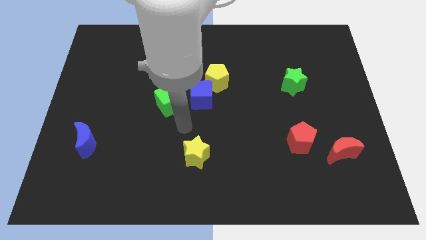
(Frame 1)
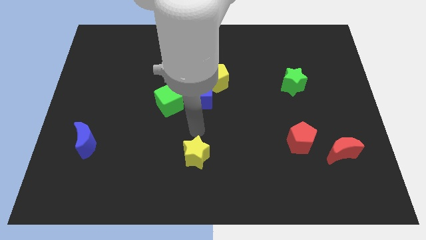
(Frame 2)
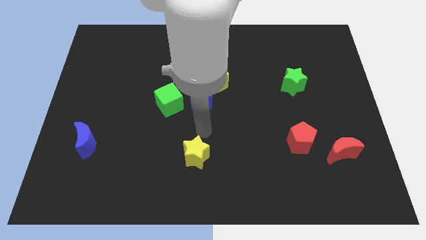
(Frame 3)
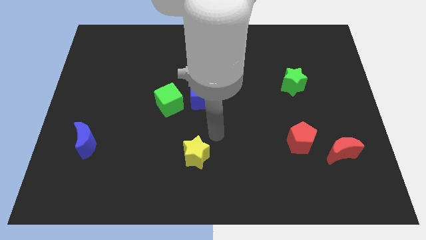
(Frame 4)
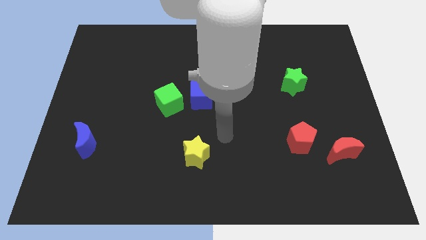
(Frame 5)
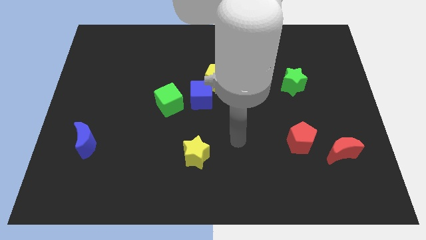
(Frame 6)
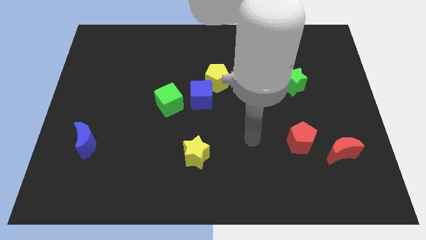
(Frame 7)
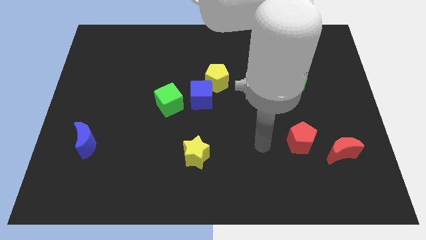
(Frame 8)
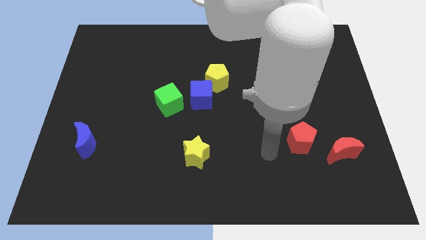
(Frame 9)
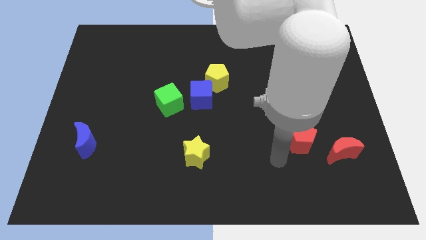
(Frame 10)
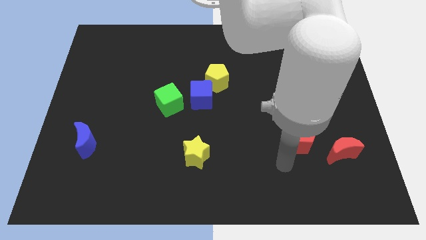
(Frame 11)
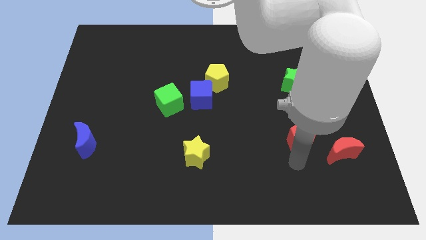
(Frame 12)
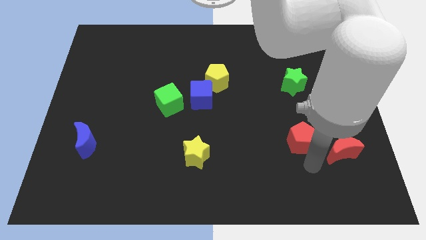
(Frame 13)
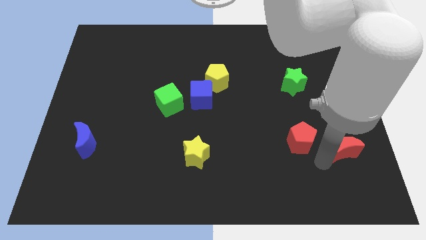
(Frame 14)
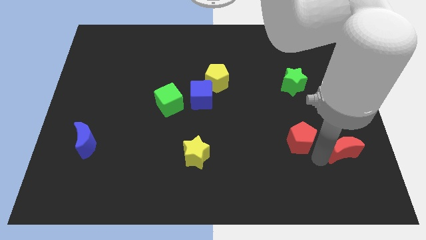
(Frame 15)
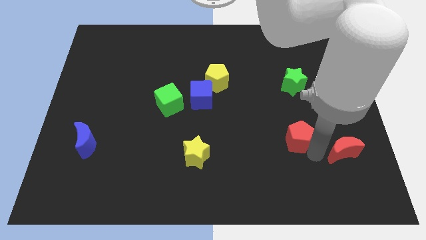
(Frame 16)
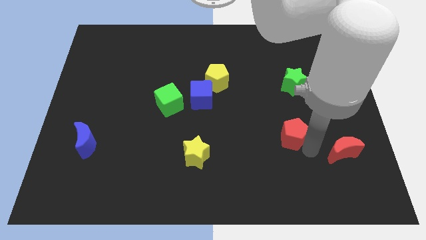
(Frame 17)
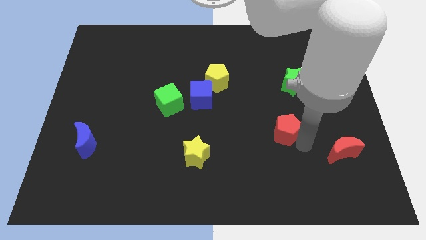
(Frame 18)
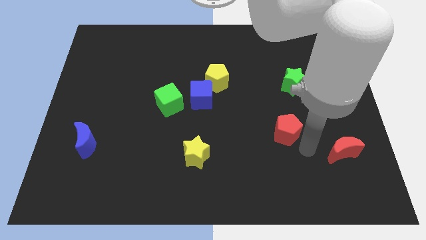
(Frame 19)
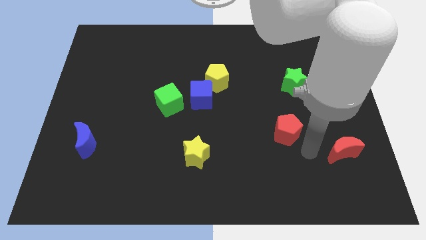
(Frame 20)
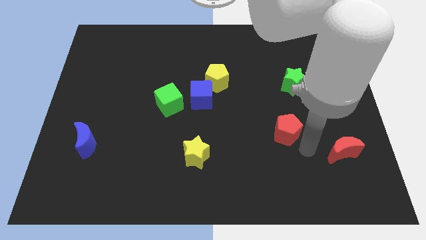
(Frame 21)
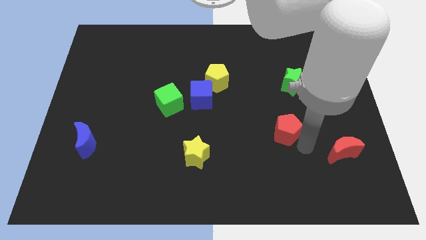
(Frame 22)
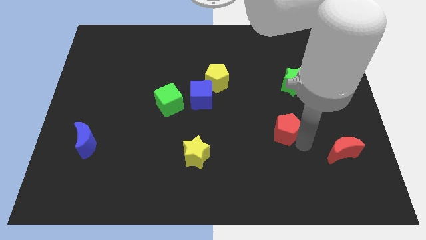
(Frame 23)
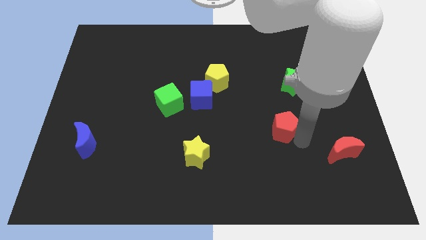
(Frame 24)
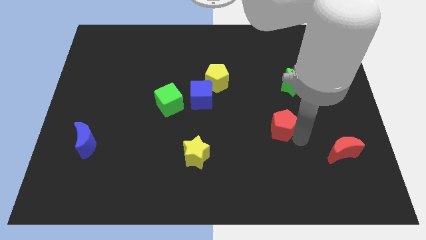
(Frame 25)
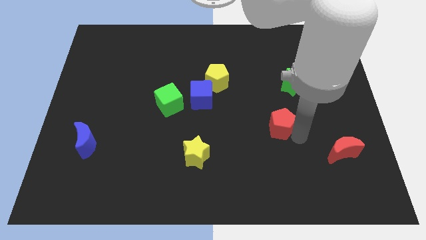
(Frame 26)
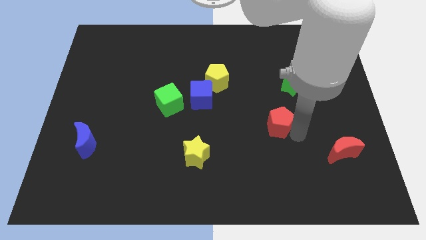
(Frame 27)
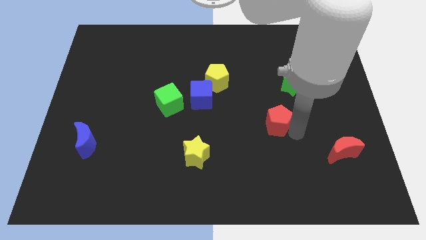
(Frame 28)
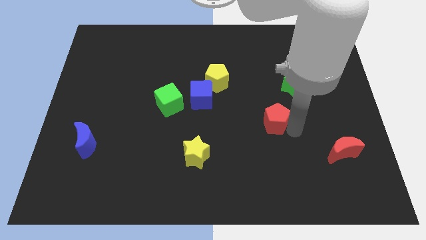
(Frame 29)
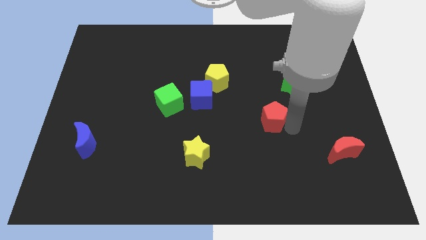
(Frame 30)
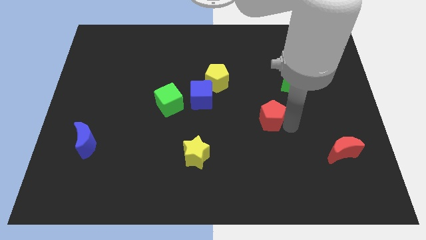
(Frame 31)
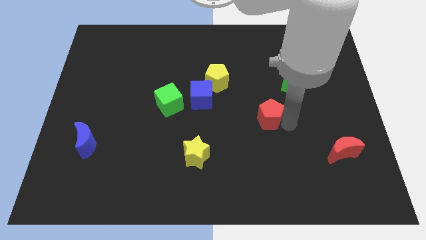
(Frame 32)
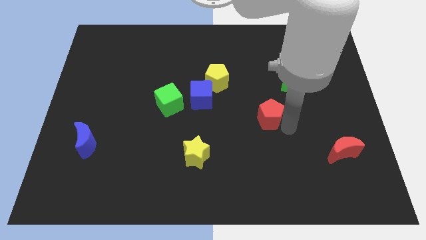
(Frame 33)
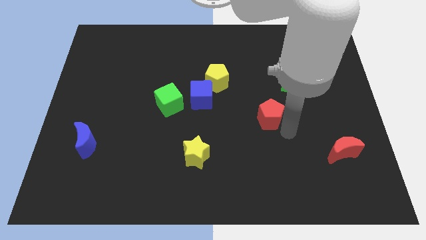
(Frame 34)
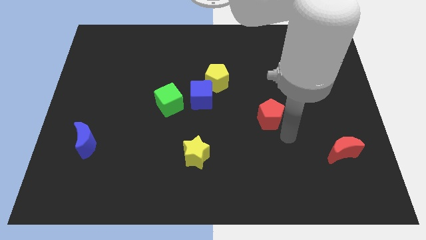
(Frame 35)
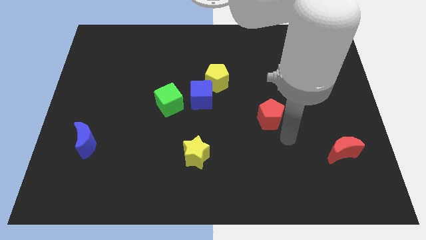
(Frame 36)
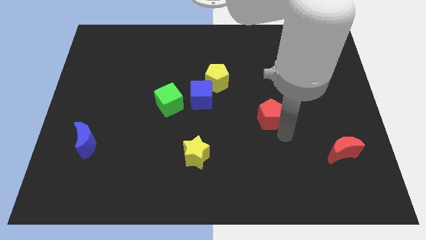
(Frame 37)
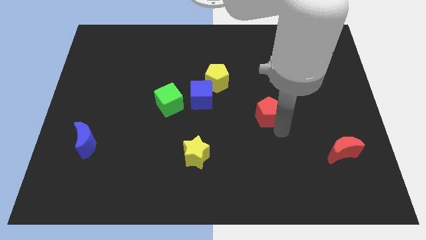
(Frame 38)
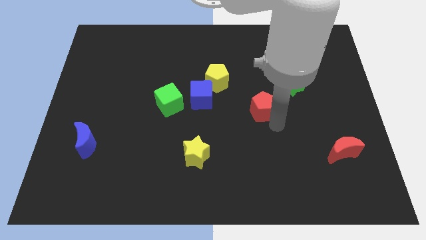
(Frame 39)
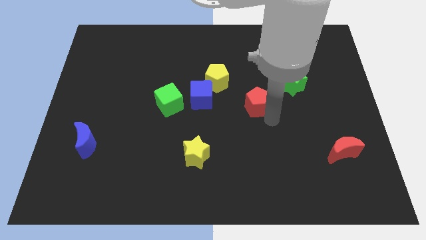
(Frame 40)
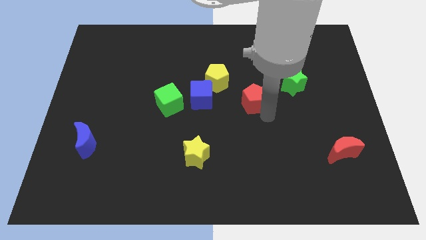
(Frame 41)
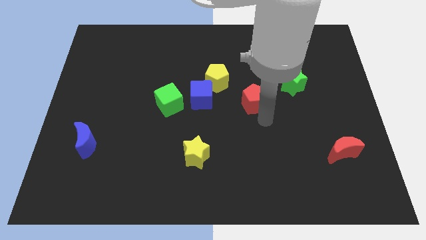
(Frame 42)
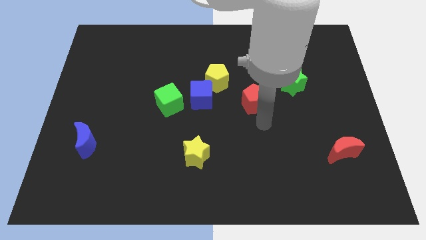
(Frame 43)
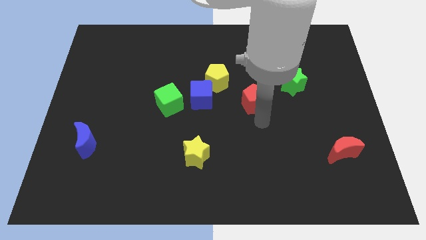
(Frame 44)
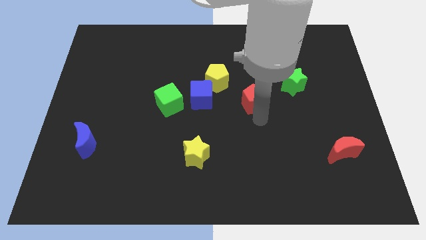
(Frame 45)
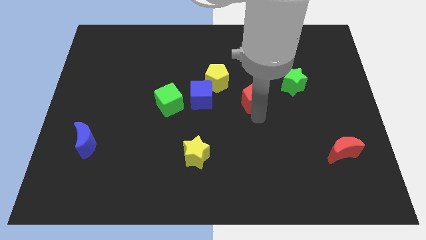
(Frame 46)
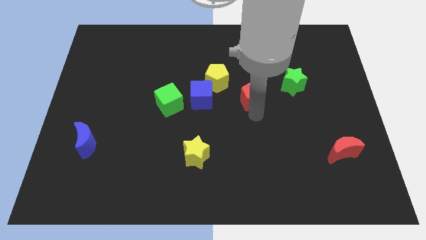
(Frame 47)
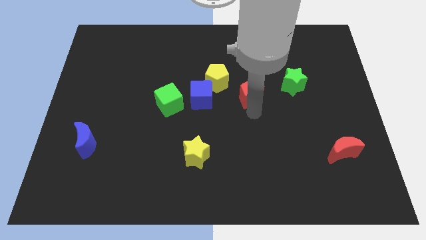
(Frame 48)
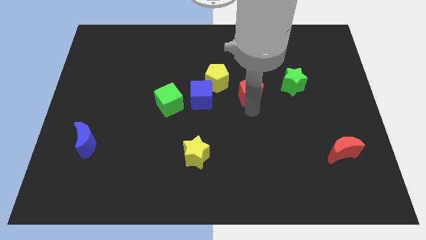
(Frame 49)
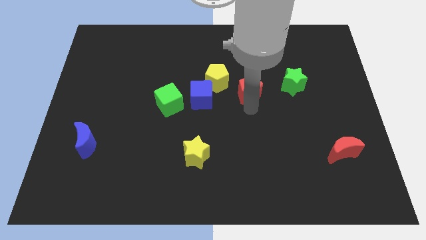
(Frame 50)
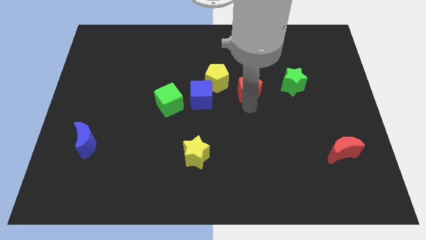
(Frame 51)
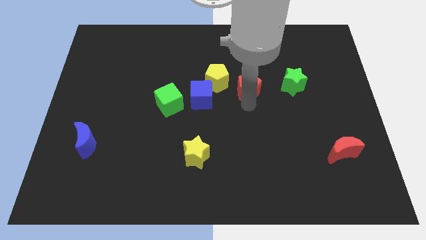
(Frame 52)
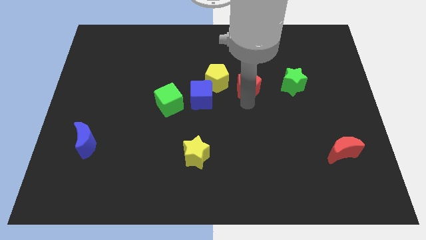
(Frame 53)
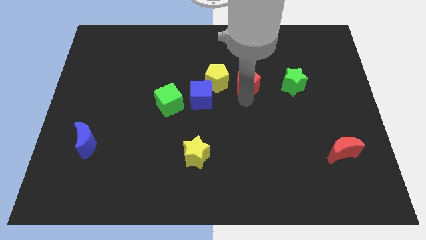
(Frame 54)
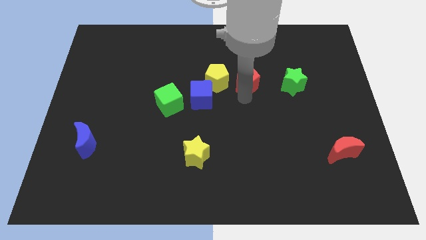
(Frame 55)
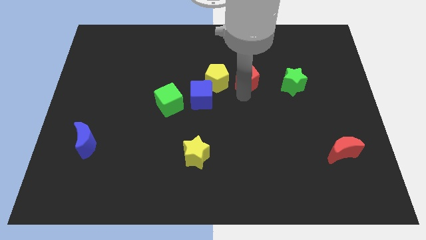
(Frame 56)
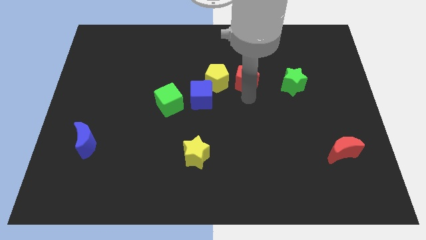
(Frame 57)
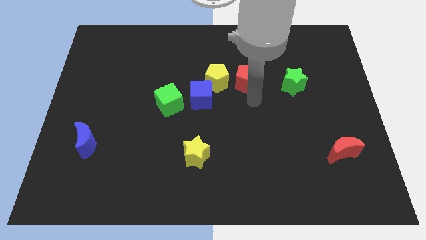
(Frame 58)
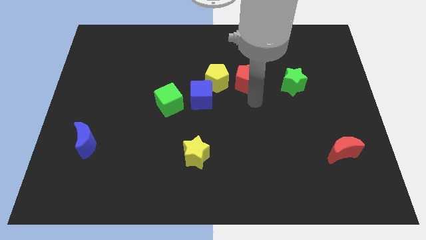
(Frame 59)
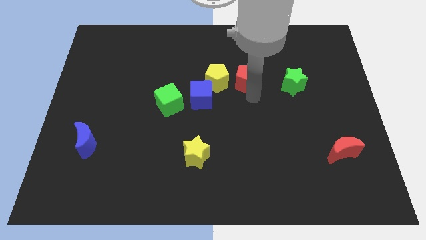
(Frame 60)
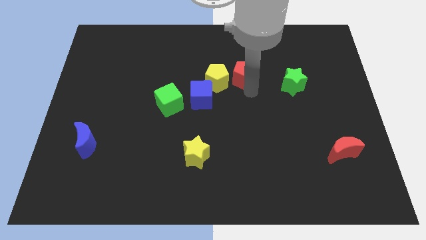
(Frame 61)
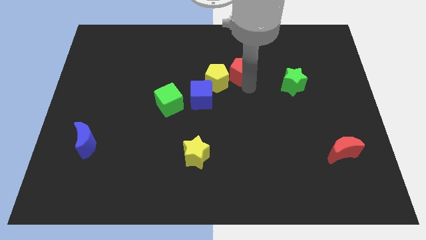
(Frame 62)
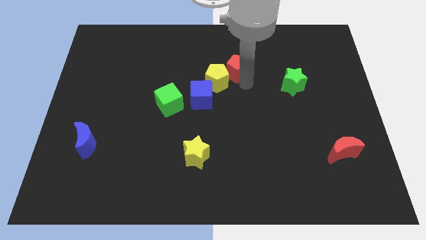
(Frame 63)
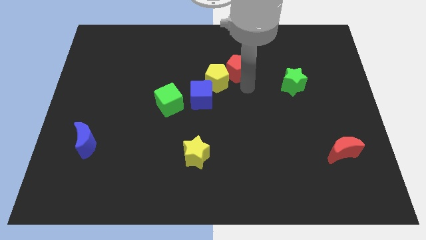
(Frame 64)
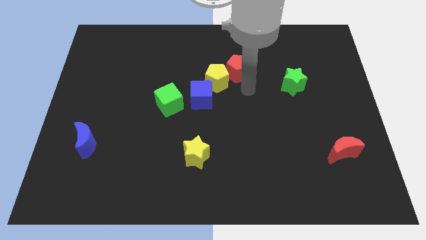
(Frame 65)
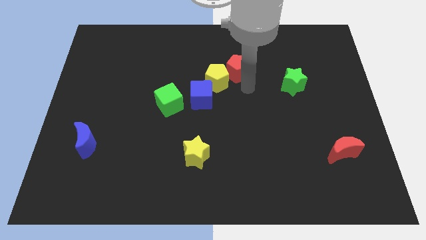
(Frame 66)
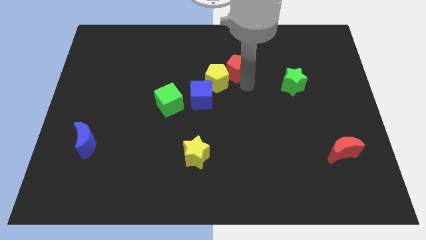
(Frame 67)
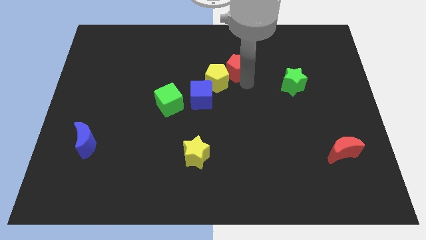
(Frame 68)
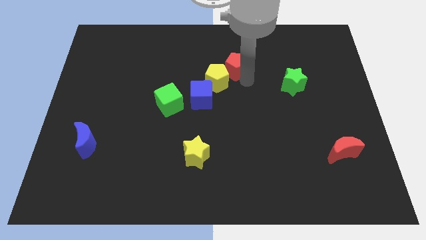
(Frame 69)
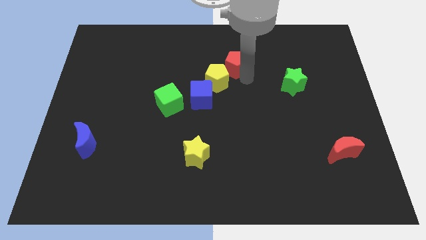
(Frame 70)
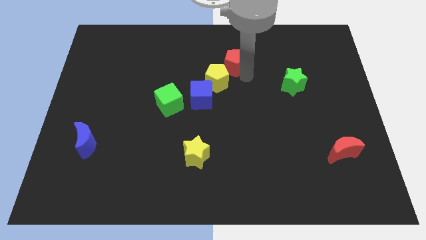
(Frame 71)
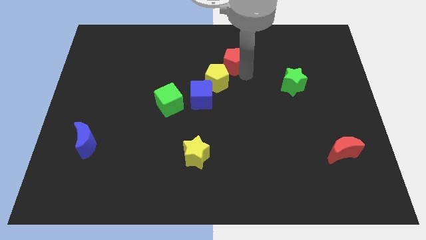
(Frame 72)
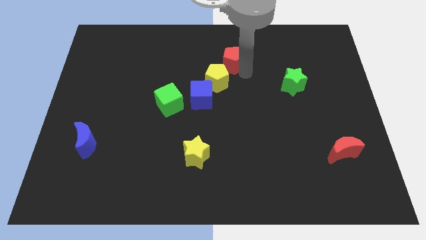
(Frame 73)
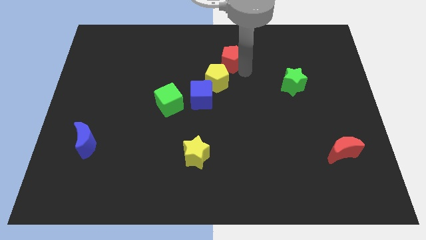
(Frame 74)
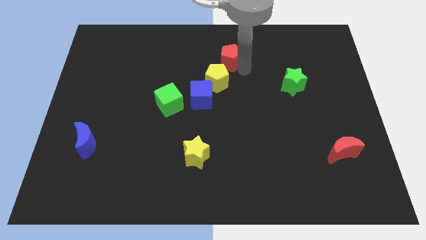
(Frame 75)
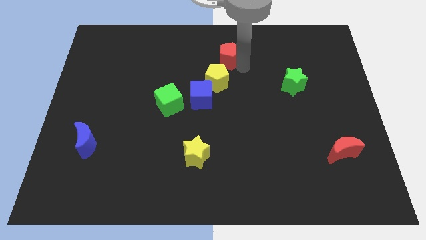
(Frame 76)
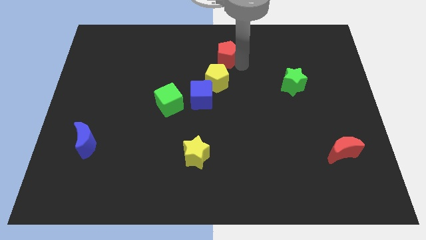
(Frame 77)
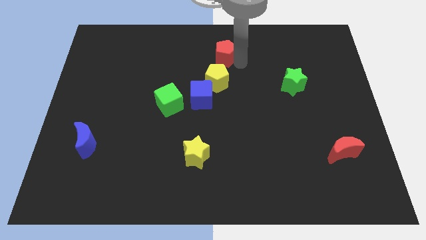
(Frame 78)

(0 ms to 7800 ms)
put the red pentagon to the towards your base
